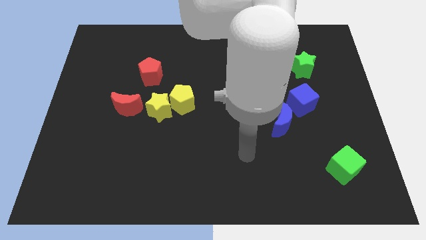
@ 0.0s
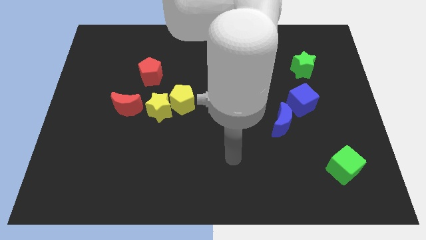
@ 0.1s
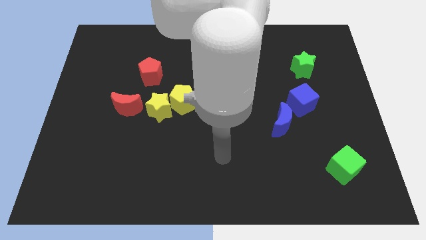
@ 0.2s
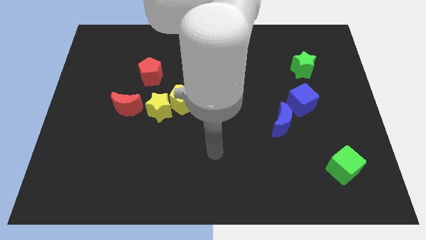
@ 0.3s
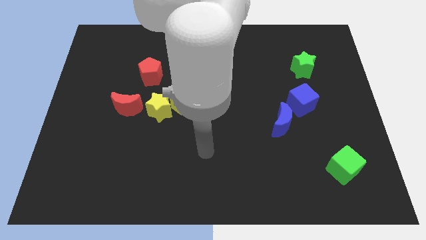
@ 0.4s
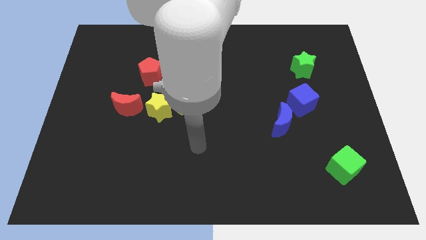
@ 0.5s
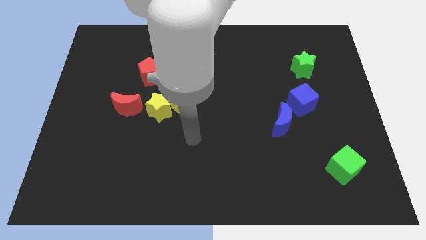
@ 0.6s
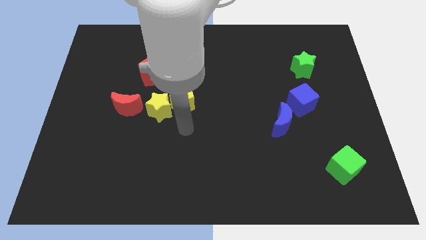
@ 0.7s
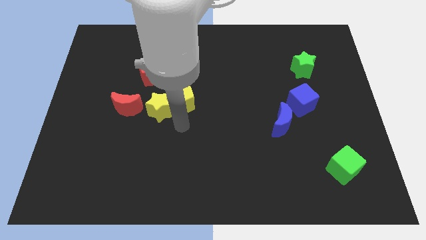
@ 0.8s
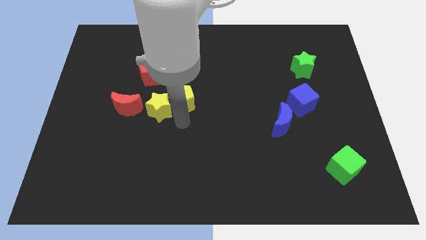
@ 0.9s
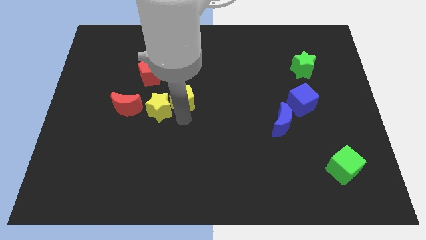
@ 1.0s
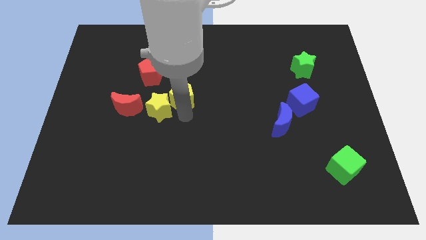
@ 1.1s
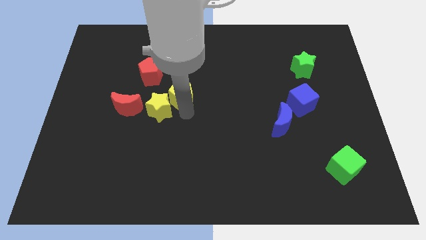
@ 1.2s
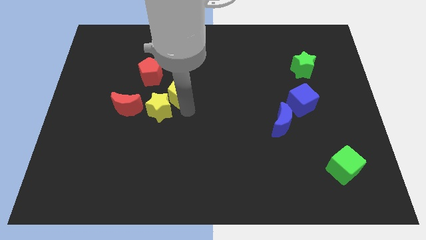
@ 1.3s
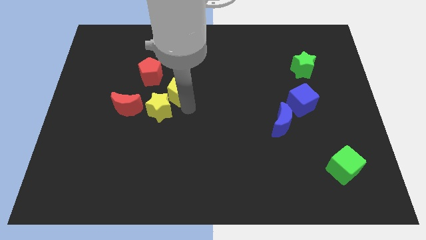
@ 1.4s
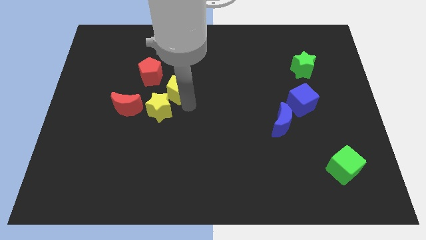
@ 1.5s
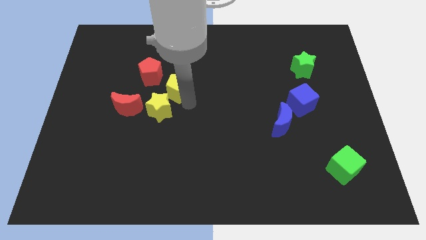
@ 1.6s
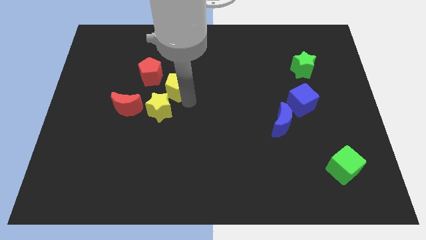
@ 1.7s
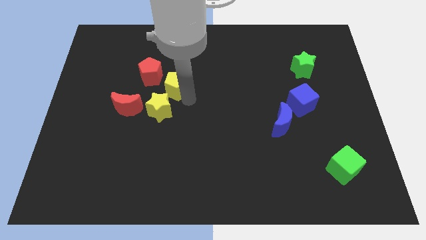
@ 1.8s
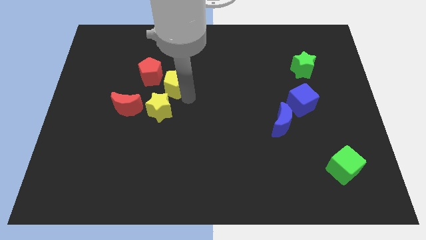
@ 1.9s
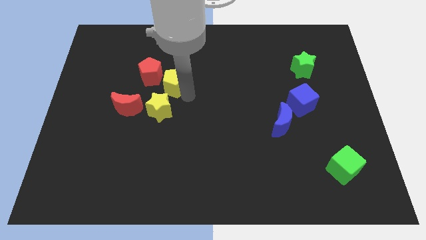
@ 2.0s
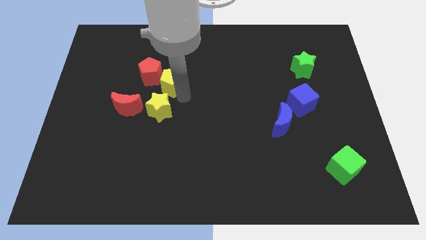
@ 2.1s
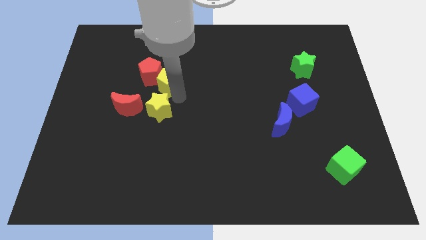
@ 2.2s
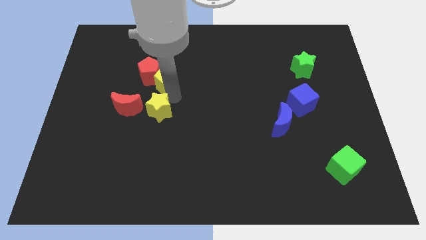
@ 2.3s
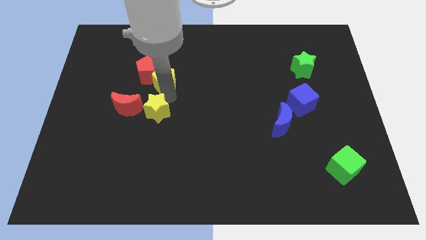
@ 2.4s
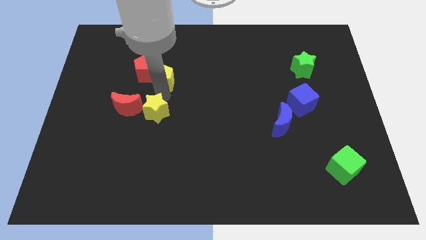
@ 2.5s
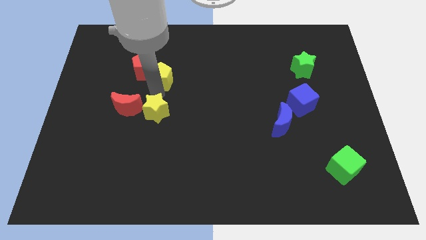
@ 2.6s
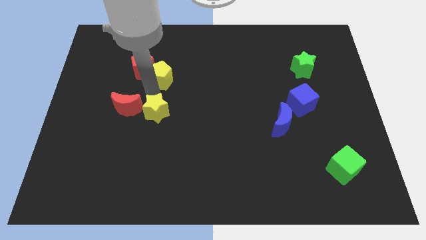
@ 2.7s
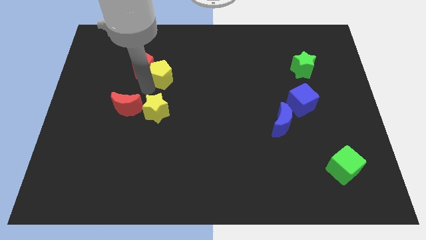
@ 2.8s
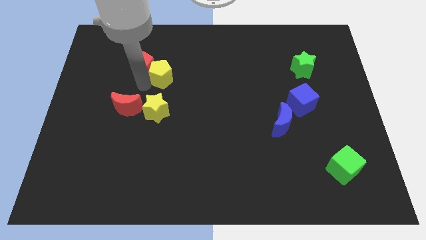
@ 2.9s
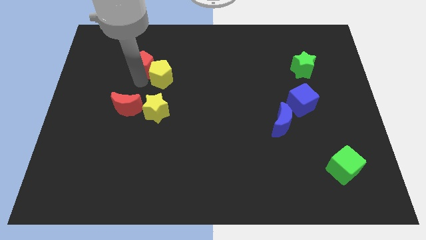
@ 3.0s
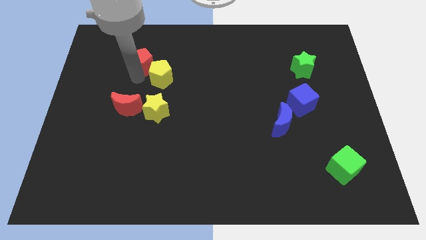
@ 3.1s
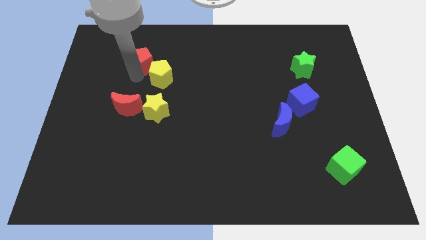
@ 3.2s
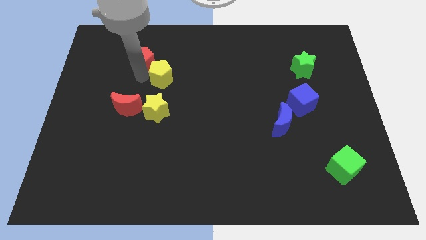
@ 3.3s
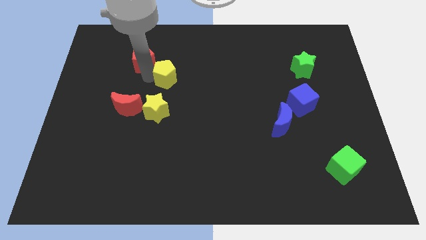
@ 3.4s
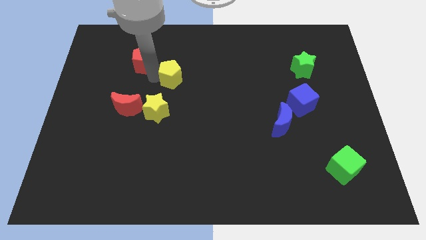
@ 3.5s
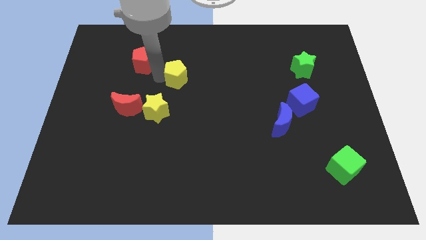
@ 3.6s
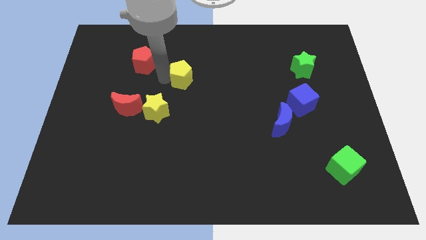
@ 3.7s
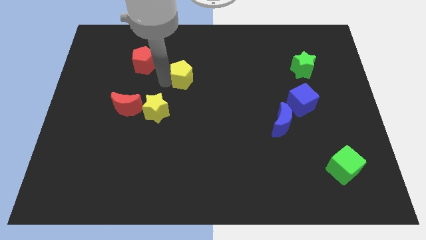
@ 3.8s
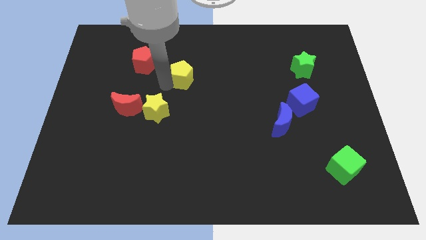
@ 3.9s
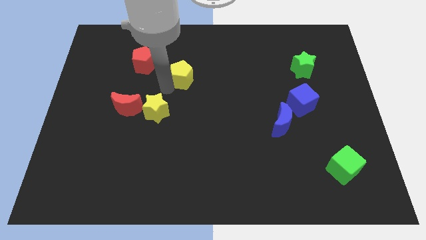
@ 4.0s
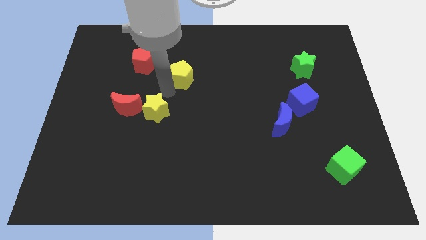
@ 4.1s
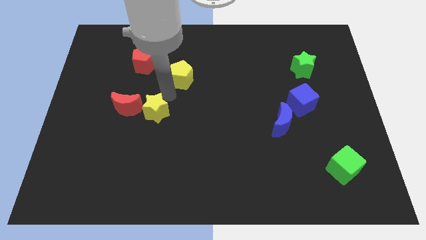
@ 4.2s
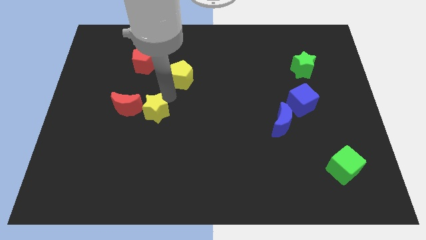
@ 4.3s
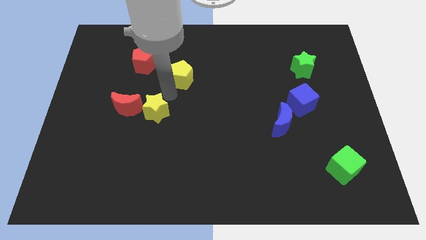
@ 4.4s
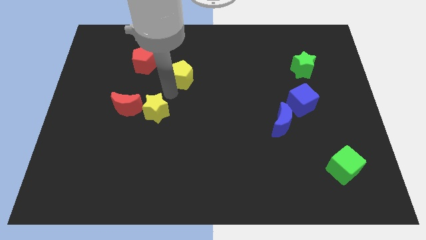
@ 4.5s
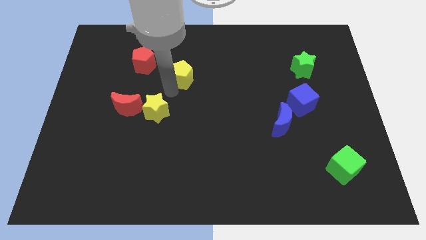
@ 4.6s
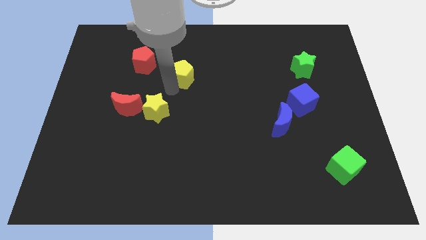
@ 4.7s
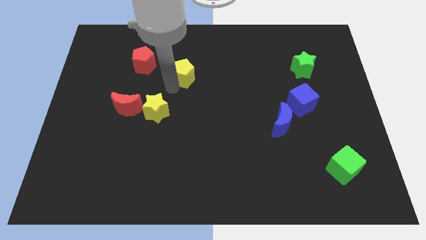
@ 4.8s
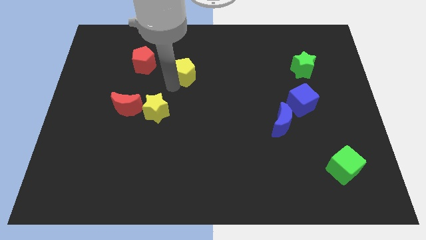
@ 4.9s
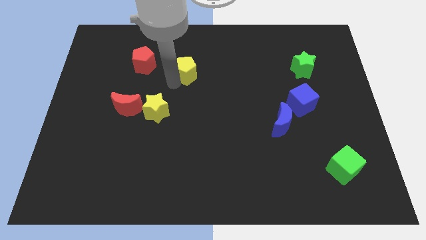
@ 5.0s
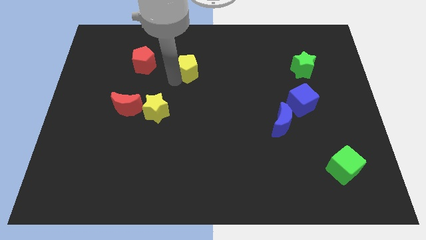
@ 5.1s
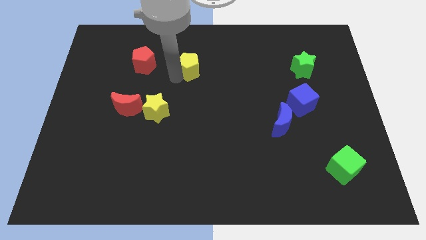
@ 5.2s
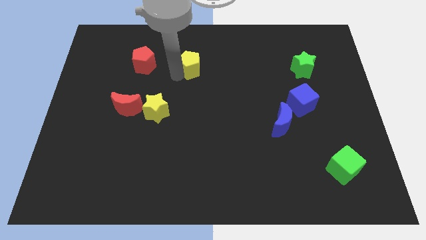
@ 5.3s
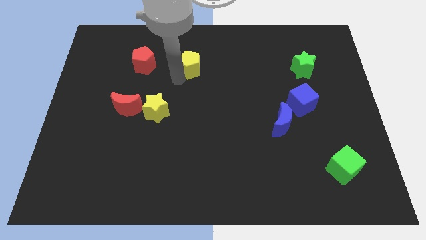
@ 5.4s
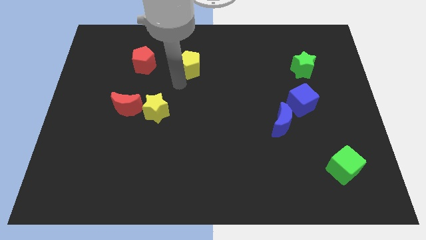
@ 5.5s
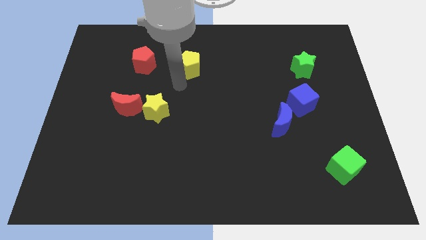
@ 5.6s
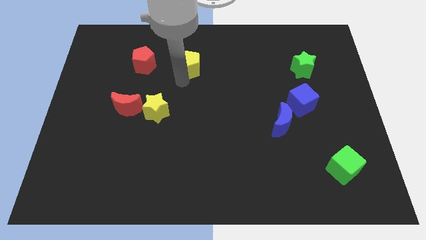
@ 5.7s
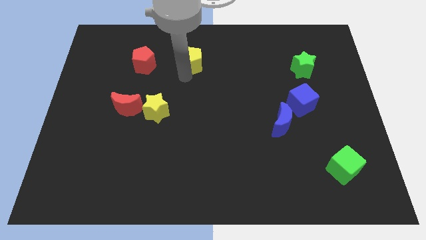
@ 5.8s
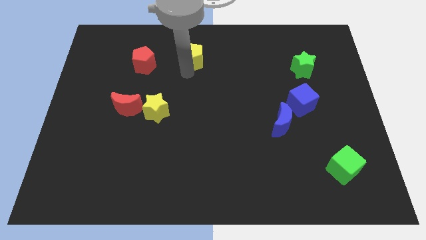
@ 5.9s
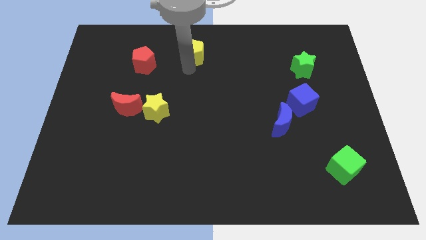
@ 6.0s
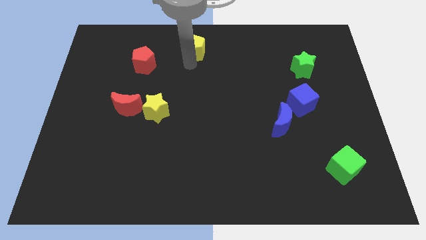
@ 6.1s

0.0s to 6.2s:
put the yellow pentagon to the top
